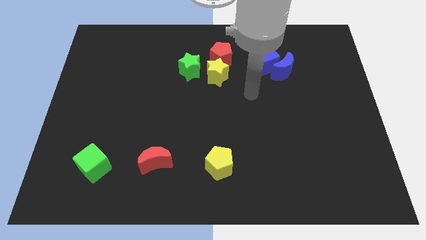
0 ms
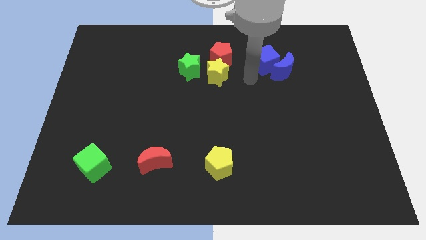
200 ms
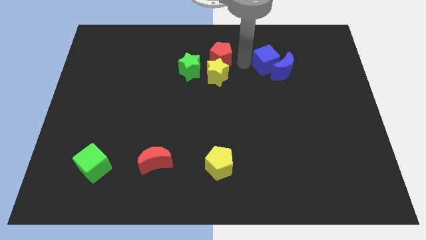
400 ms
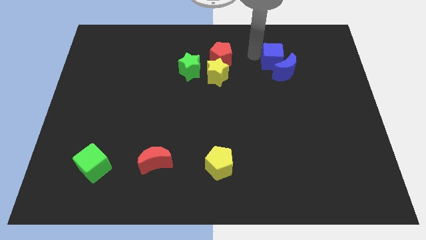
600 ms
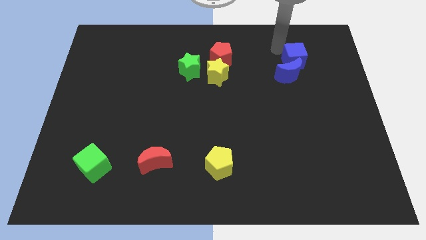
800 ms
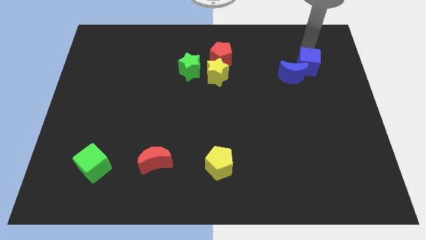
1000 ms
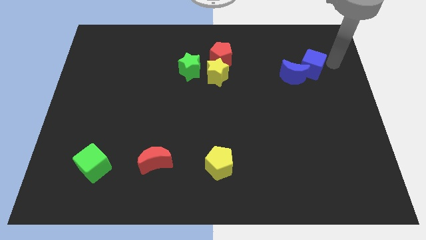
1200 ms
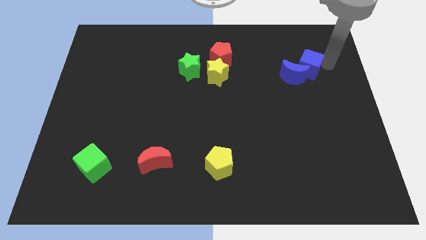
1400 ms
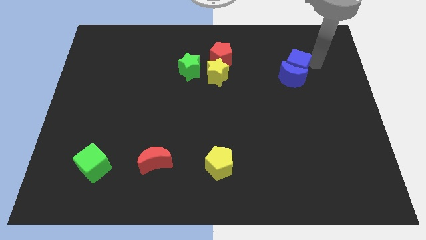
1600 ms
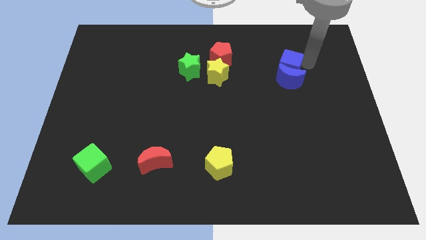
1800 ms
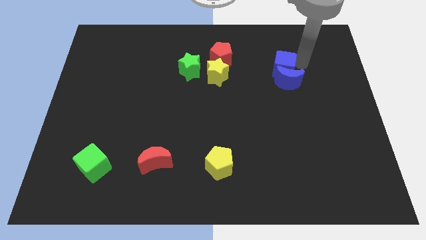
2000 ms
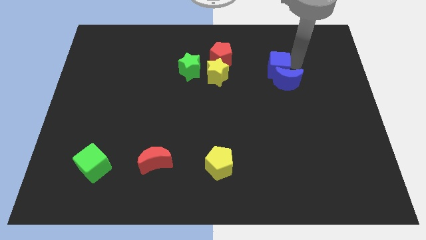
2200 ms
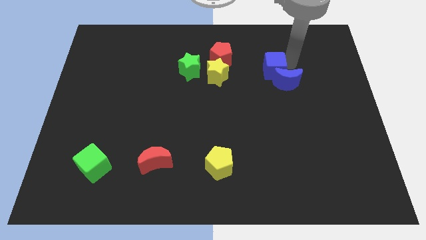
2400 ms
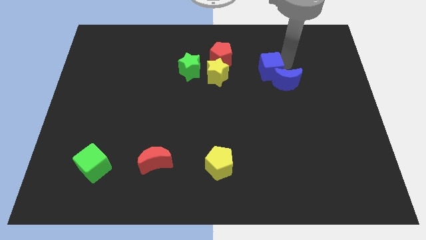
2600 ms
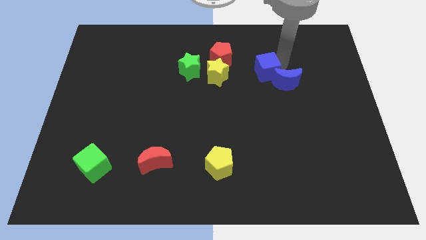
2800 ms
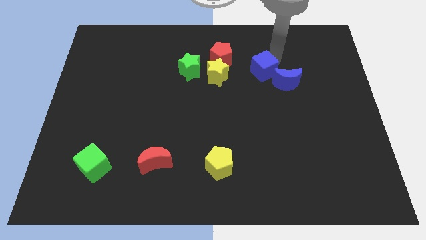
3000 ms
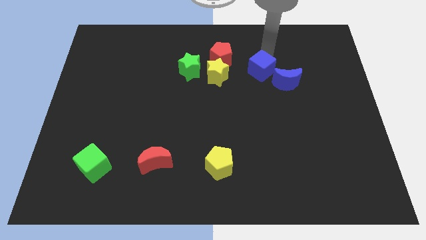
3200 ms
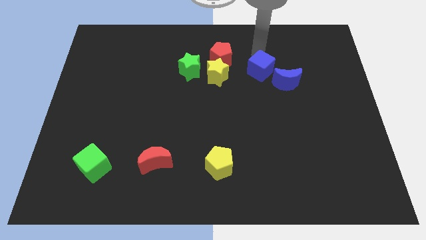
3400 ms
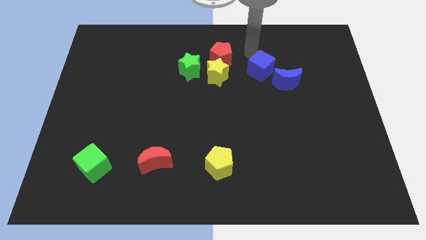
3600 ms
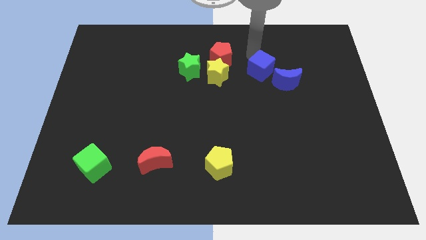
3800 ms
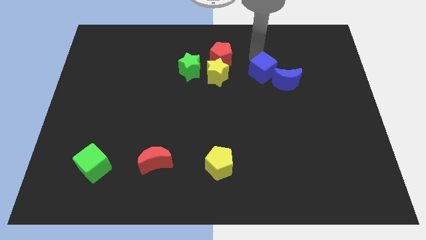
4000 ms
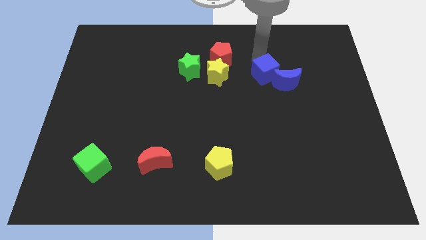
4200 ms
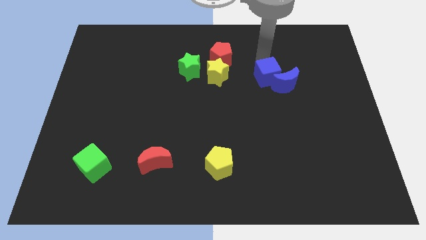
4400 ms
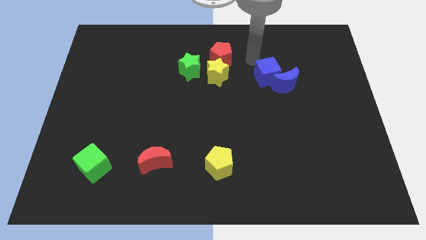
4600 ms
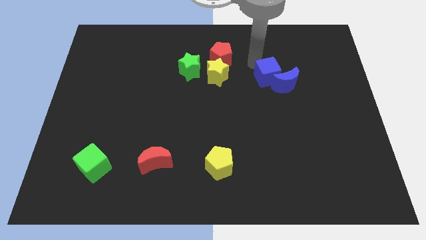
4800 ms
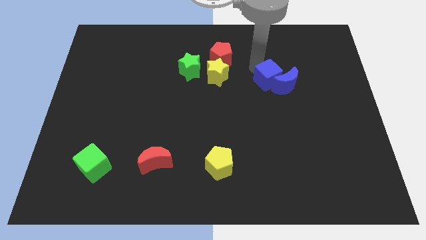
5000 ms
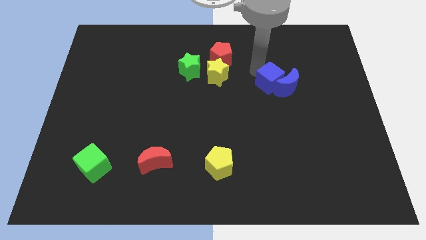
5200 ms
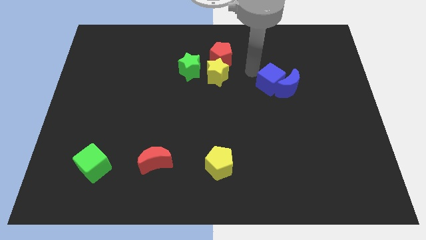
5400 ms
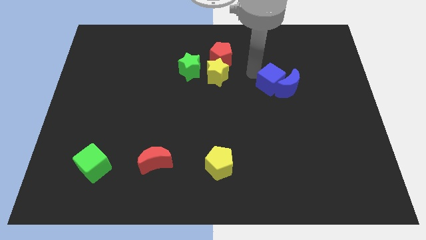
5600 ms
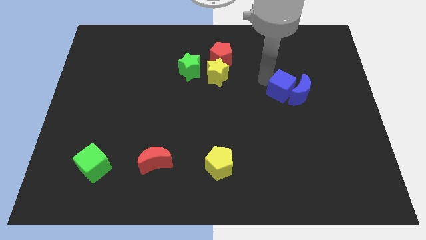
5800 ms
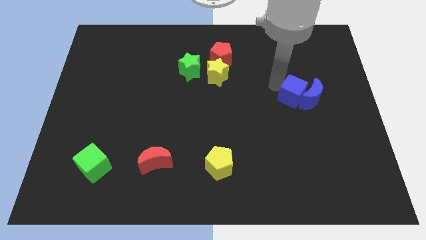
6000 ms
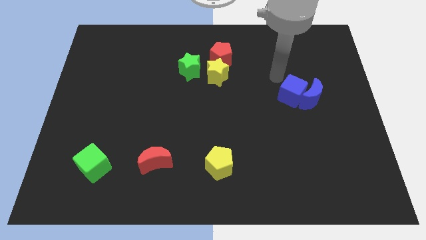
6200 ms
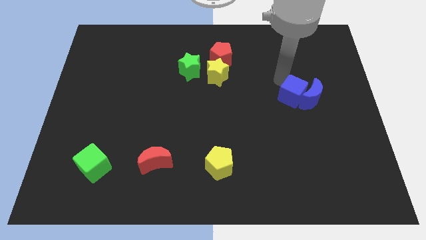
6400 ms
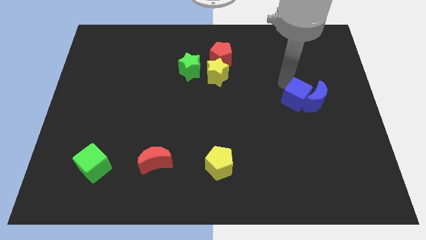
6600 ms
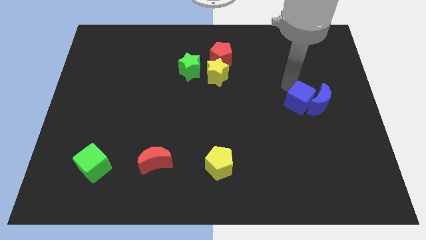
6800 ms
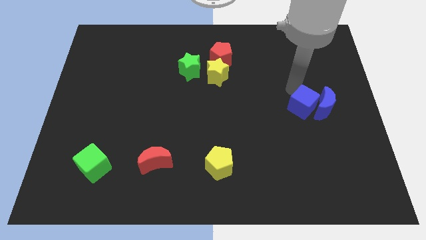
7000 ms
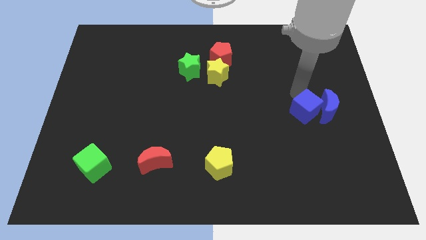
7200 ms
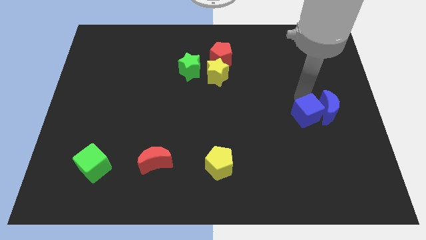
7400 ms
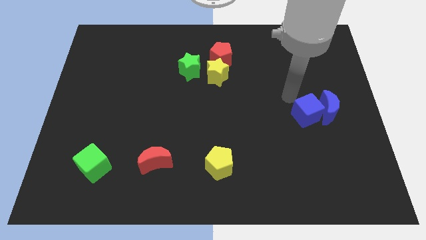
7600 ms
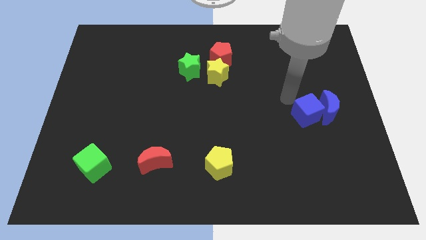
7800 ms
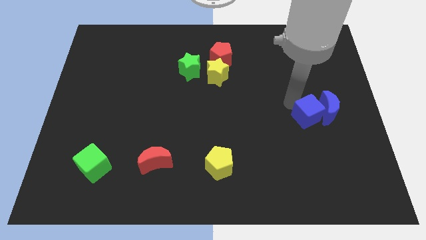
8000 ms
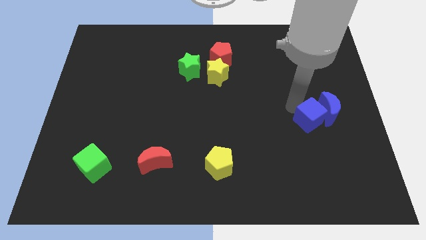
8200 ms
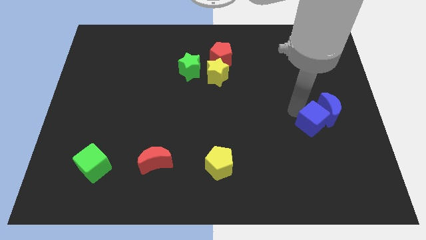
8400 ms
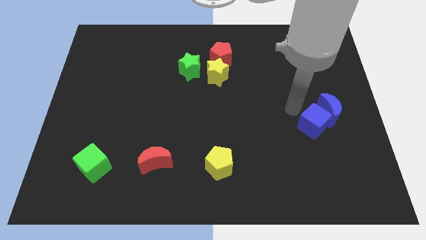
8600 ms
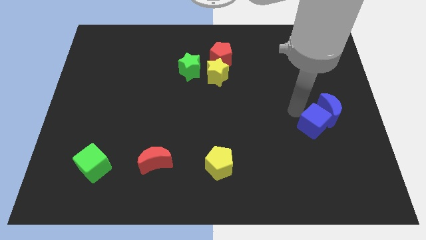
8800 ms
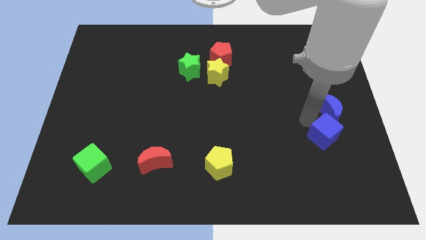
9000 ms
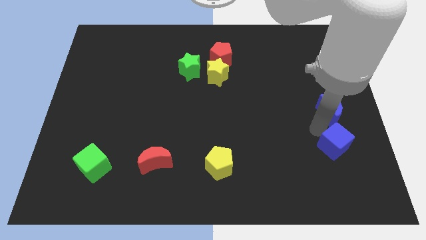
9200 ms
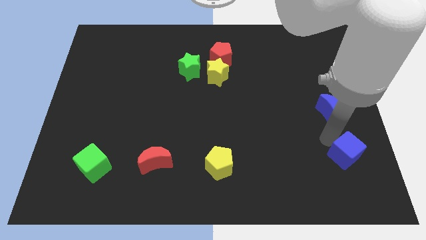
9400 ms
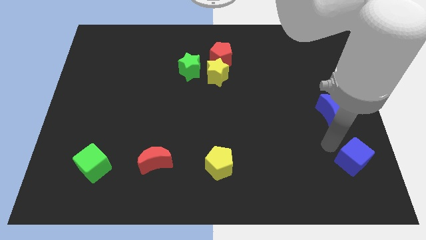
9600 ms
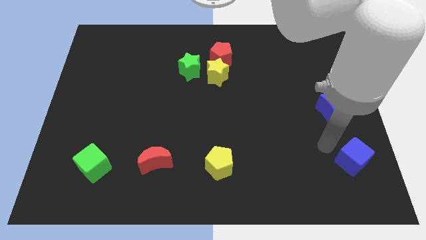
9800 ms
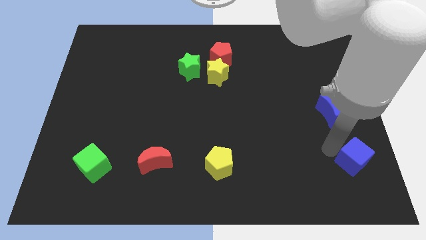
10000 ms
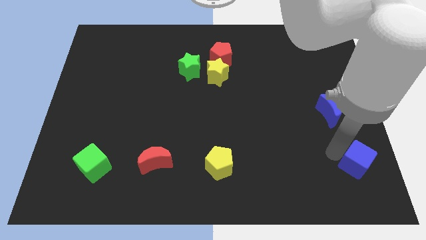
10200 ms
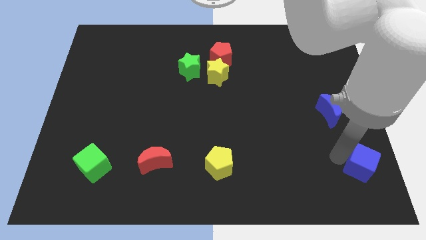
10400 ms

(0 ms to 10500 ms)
put the blue cube to the bottom right of the board

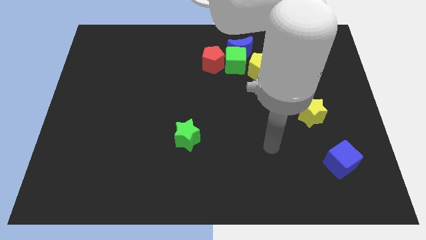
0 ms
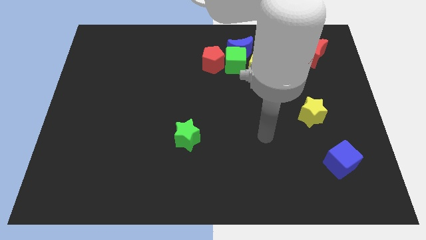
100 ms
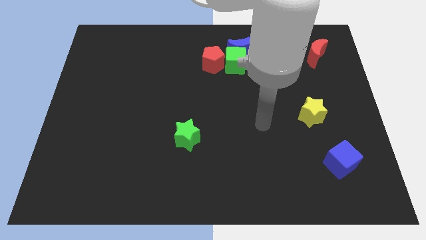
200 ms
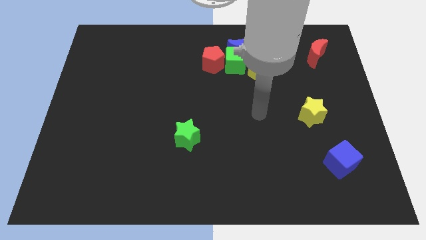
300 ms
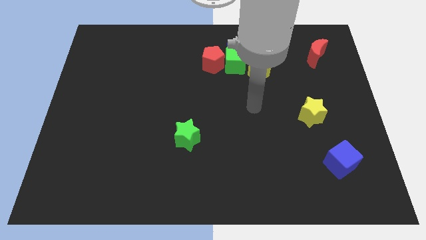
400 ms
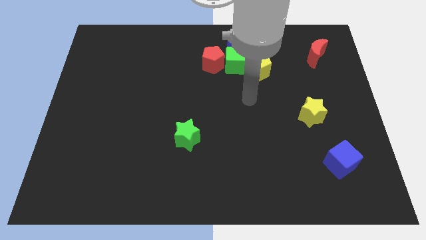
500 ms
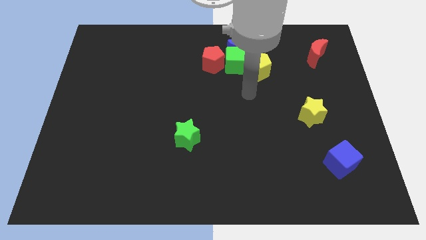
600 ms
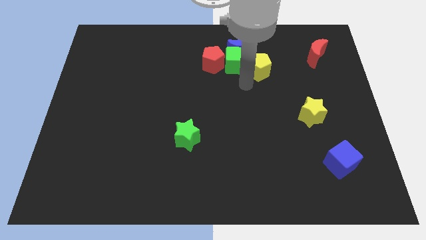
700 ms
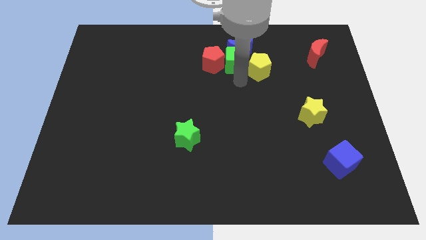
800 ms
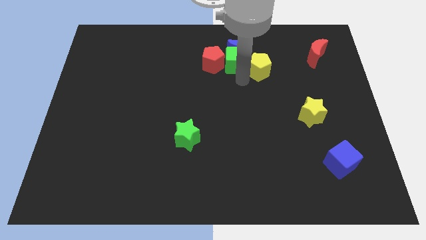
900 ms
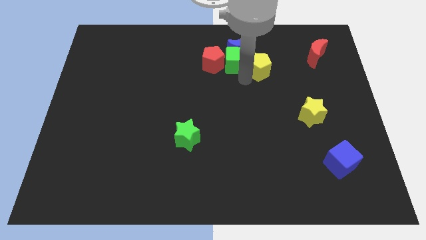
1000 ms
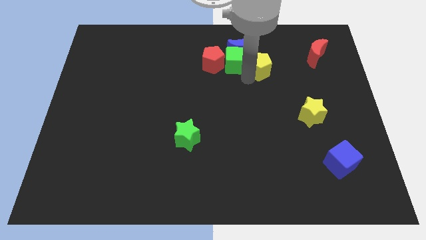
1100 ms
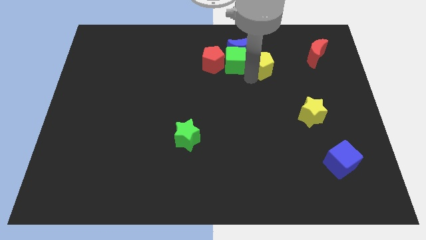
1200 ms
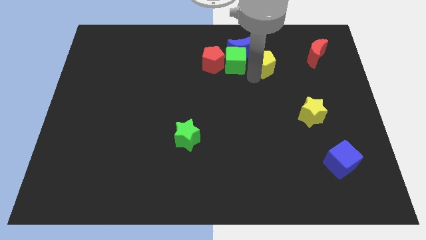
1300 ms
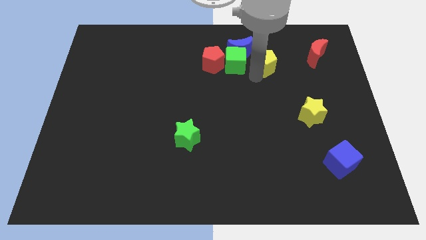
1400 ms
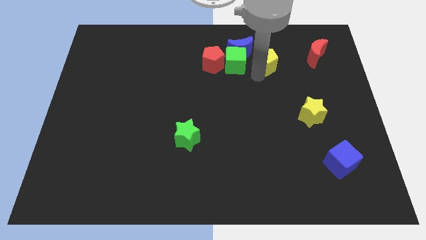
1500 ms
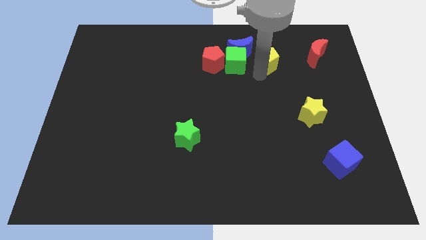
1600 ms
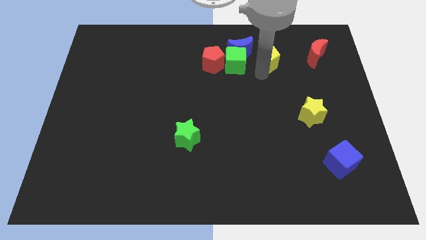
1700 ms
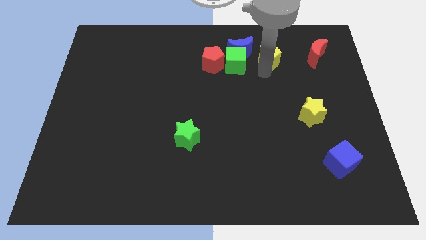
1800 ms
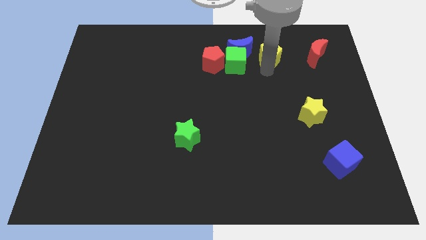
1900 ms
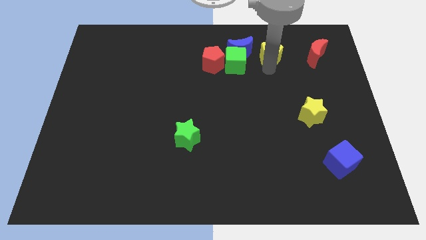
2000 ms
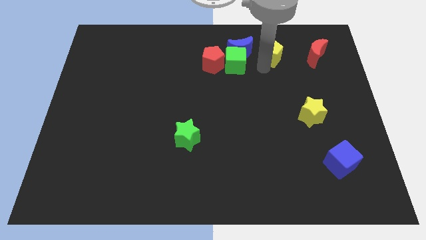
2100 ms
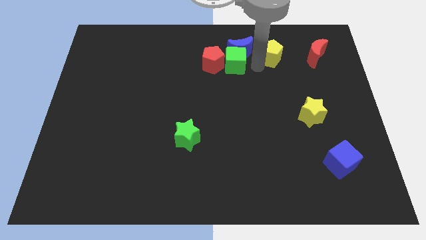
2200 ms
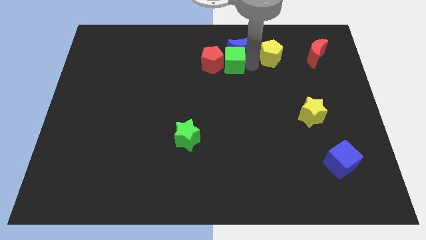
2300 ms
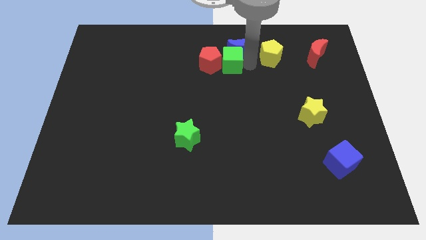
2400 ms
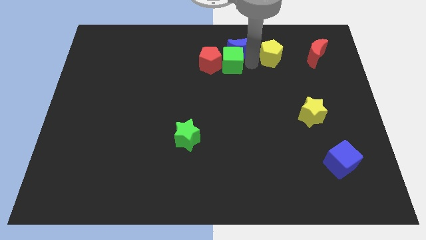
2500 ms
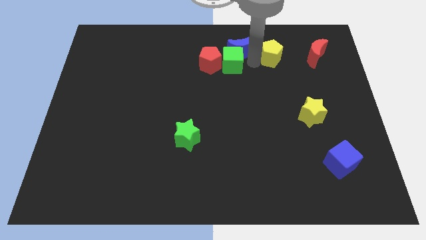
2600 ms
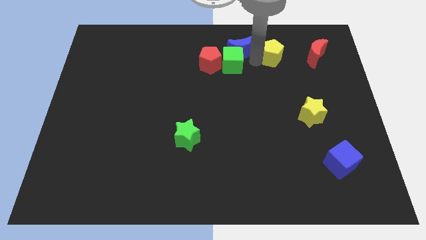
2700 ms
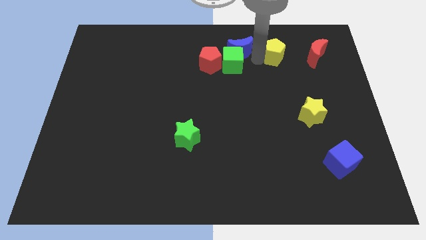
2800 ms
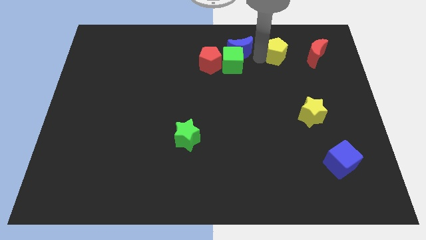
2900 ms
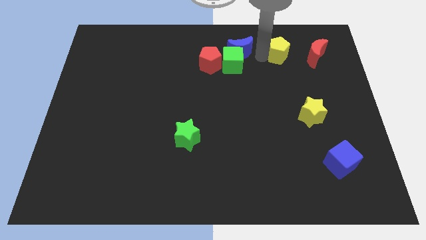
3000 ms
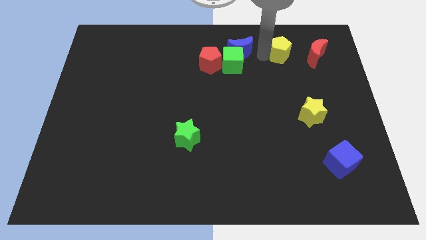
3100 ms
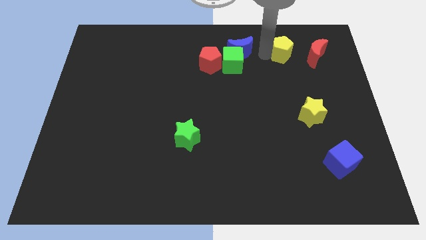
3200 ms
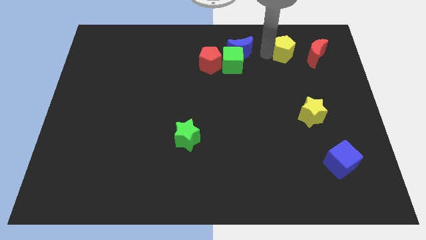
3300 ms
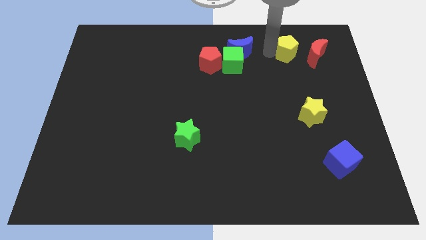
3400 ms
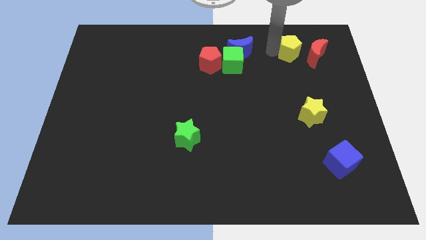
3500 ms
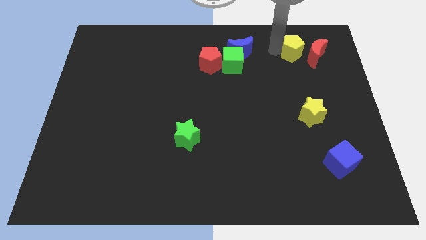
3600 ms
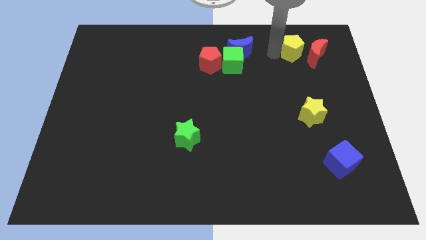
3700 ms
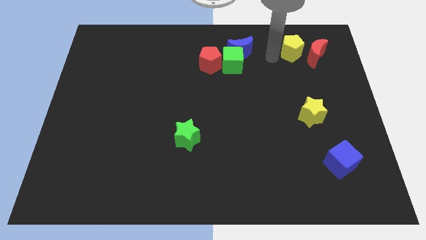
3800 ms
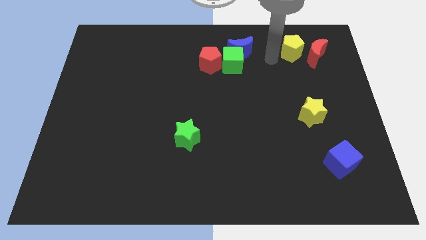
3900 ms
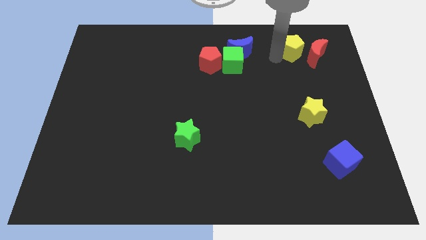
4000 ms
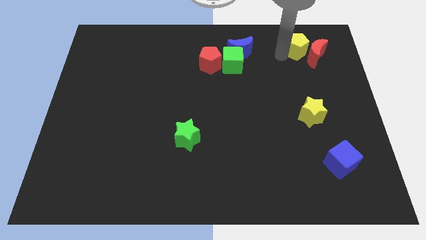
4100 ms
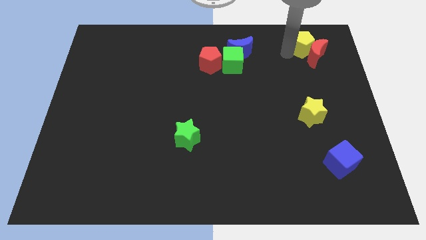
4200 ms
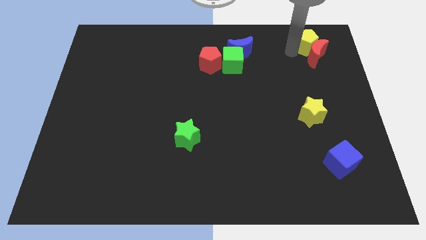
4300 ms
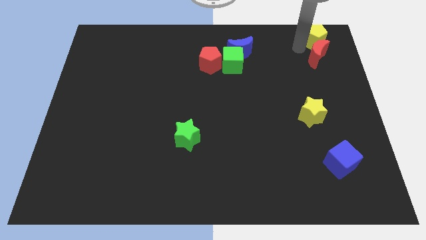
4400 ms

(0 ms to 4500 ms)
slide the yellow pentagon to the top right of the board
